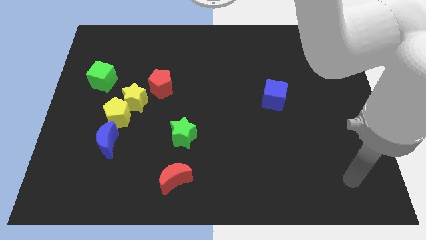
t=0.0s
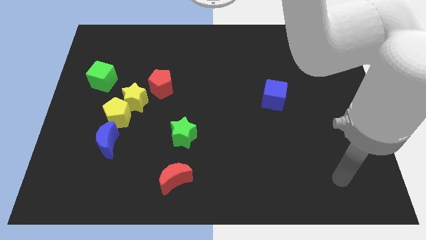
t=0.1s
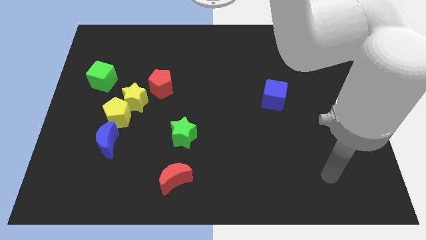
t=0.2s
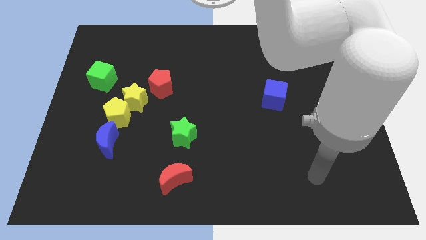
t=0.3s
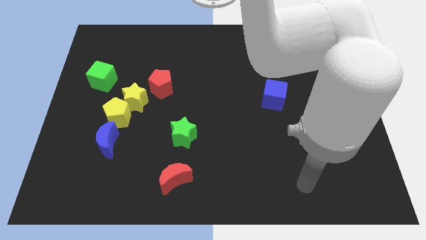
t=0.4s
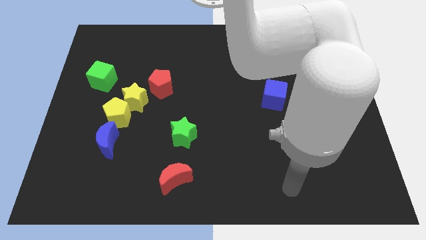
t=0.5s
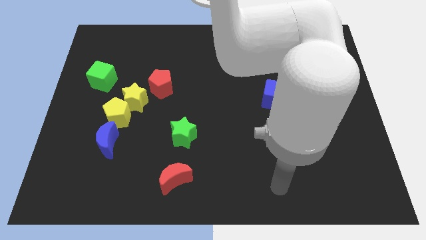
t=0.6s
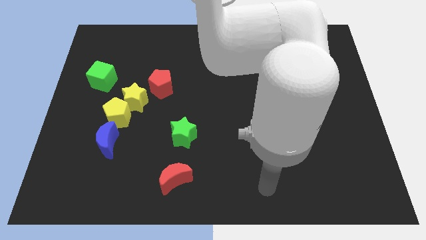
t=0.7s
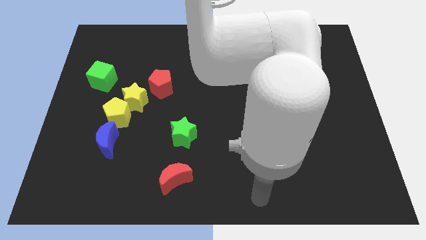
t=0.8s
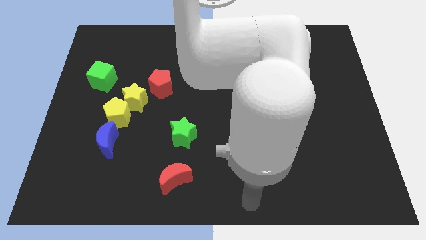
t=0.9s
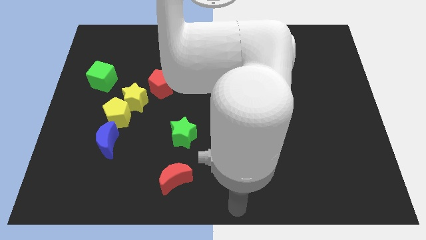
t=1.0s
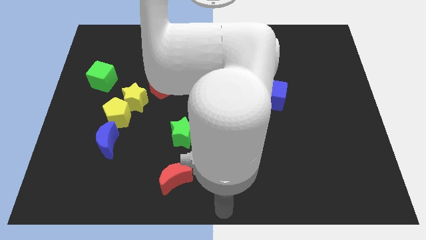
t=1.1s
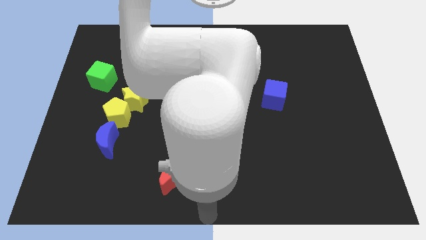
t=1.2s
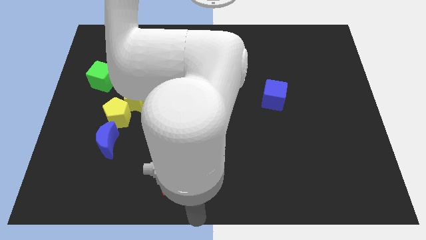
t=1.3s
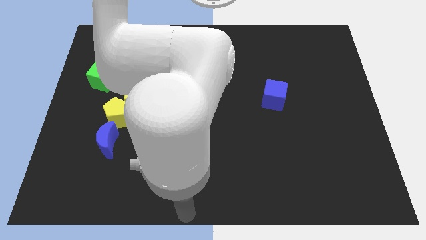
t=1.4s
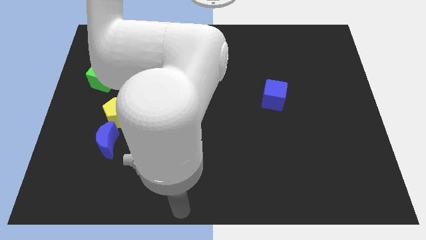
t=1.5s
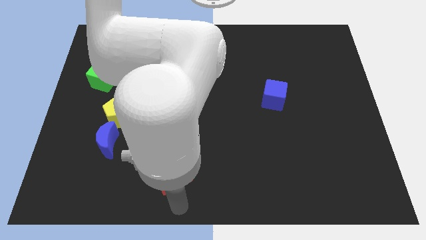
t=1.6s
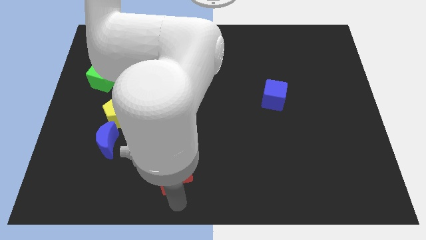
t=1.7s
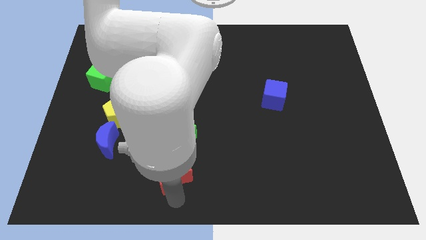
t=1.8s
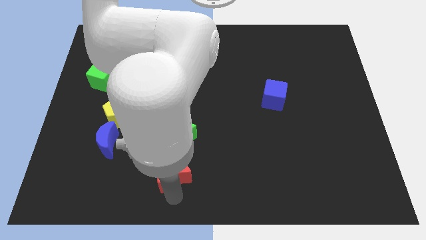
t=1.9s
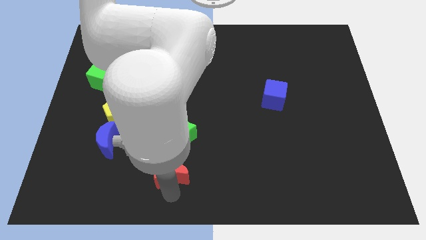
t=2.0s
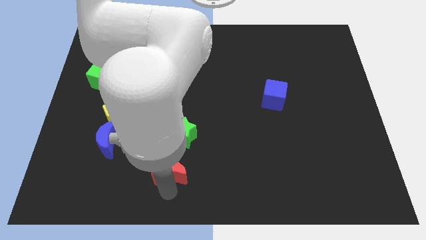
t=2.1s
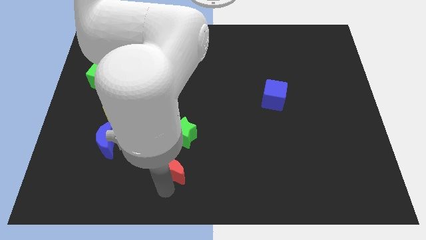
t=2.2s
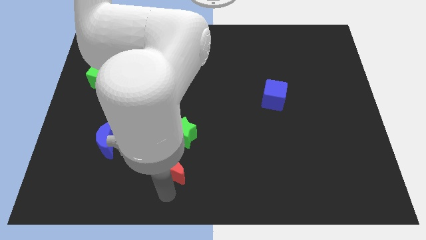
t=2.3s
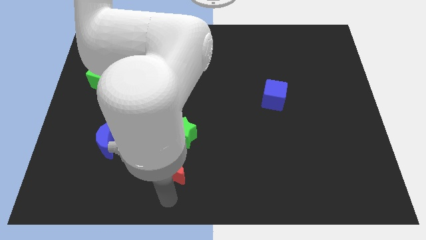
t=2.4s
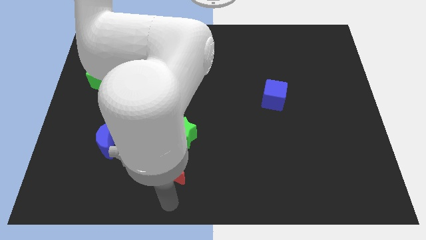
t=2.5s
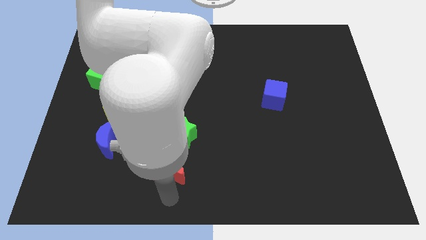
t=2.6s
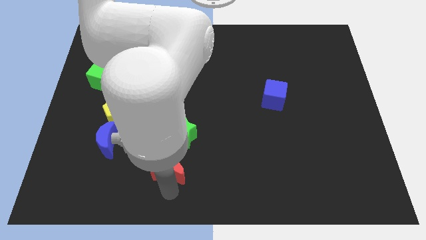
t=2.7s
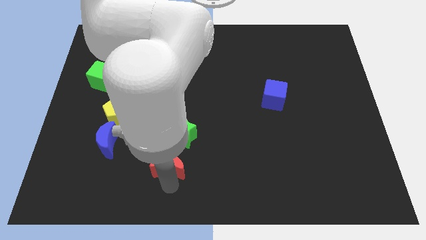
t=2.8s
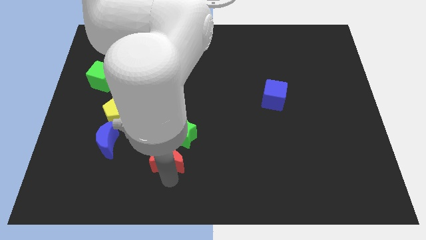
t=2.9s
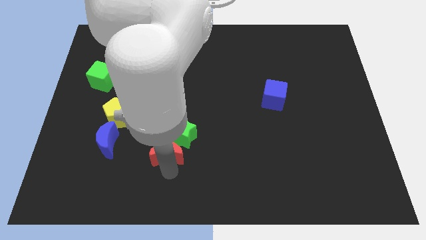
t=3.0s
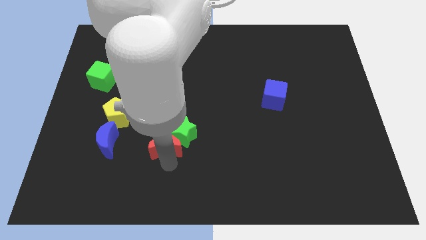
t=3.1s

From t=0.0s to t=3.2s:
push the red moon upwards a little

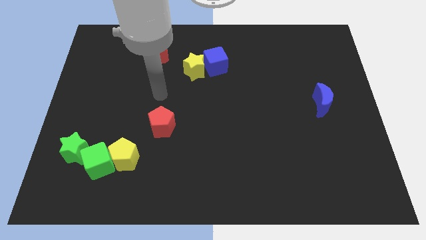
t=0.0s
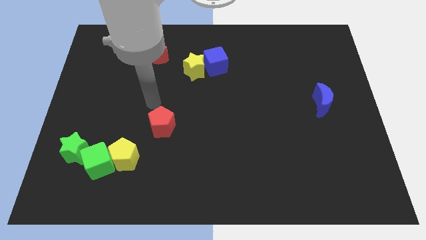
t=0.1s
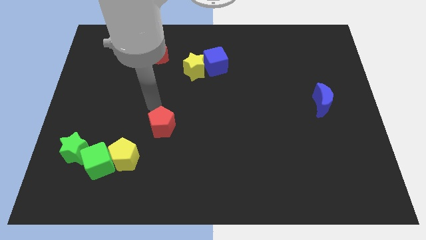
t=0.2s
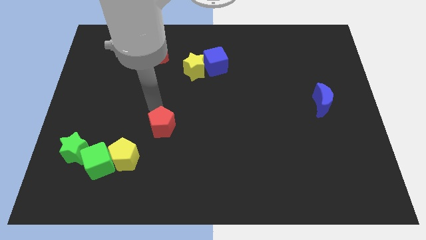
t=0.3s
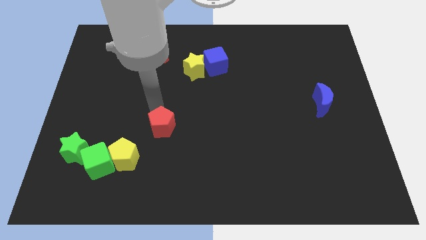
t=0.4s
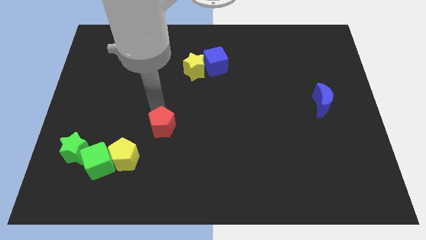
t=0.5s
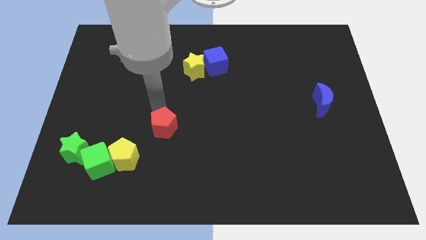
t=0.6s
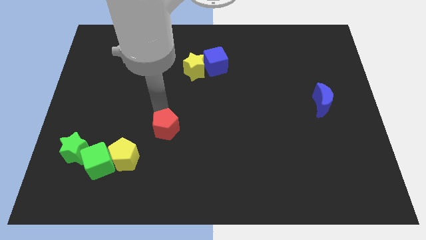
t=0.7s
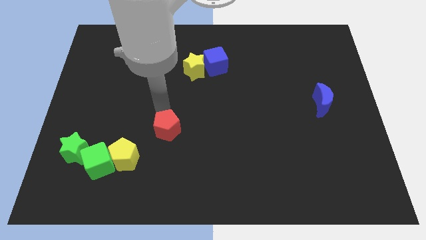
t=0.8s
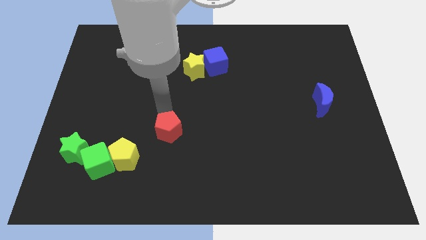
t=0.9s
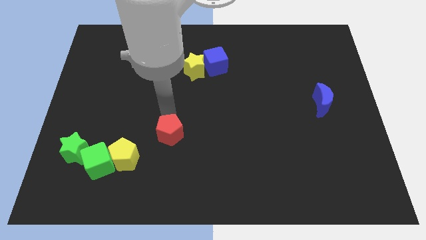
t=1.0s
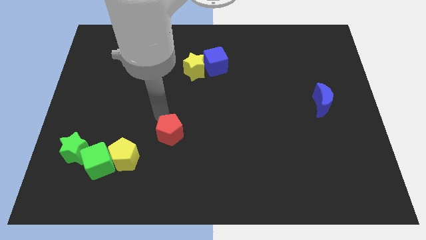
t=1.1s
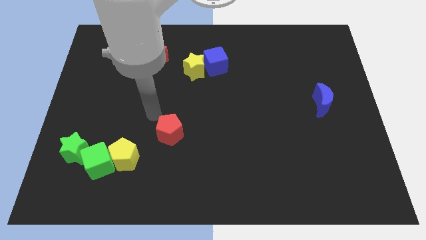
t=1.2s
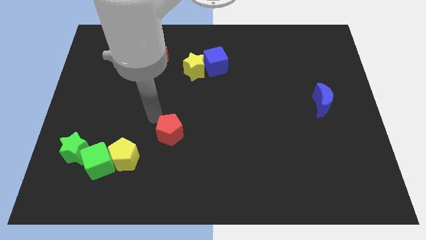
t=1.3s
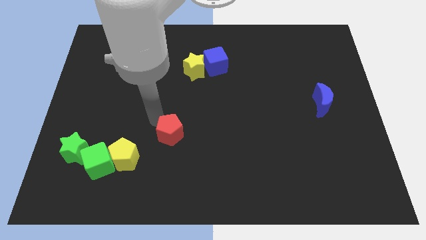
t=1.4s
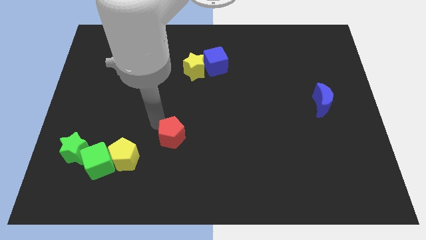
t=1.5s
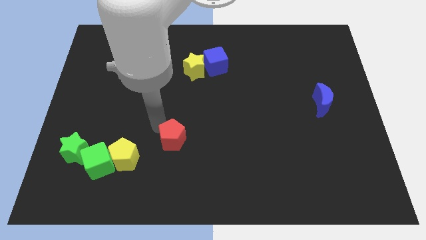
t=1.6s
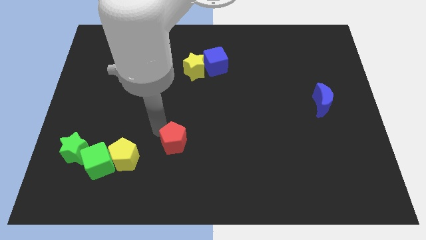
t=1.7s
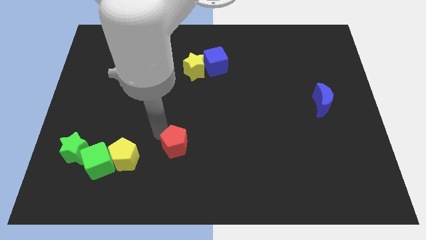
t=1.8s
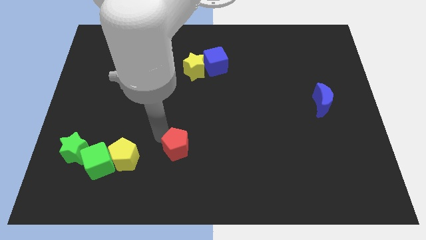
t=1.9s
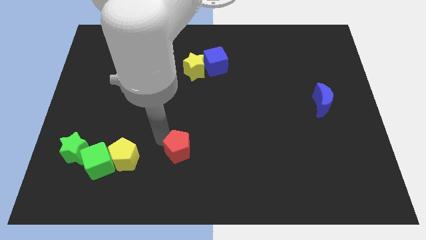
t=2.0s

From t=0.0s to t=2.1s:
slide the red pentagon a little bit diagonally downwards and right

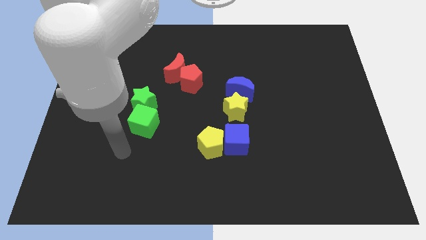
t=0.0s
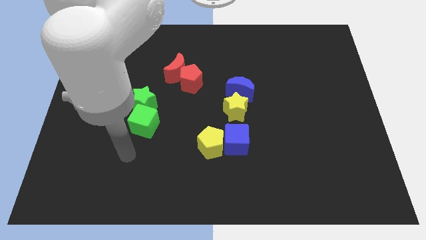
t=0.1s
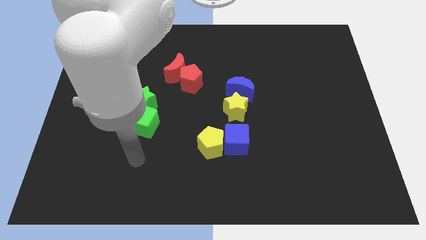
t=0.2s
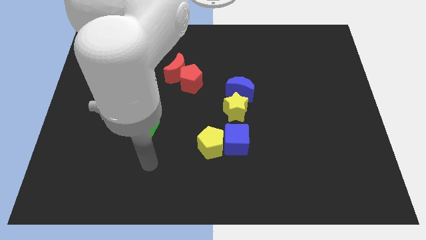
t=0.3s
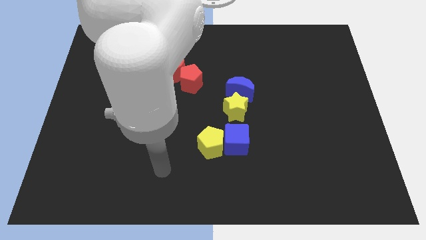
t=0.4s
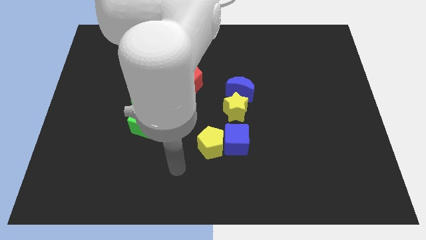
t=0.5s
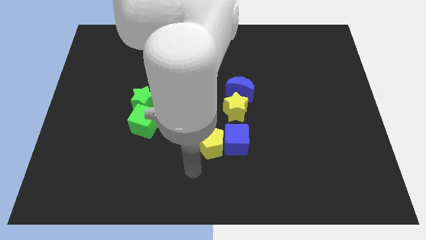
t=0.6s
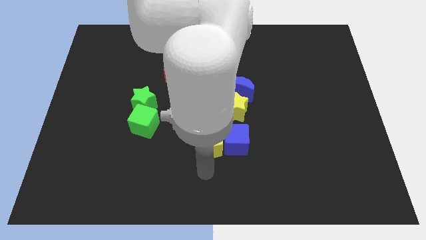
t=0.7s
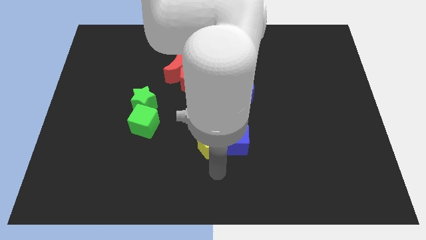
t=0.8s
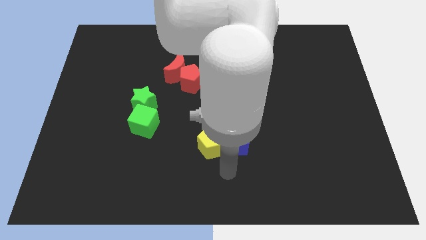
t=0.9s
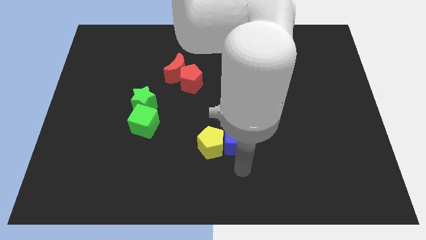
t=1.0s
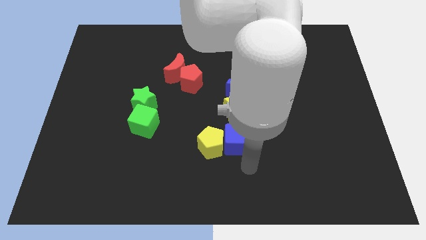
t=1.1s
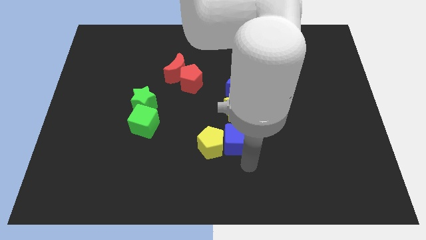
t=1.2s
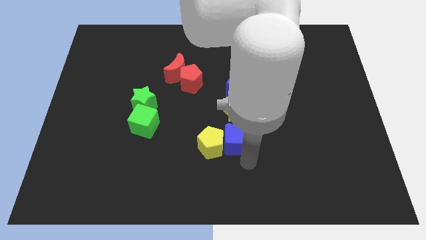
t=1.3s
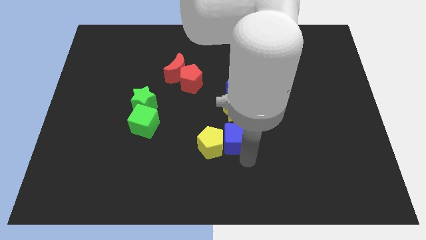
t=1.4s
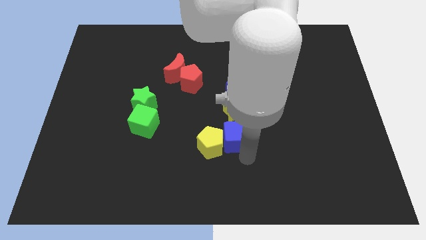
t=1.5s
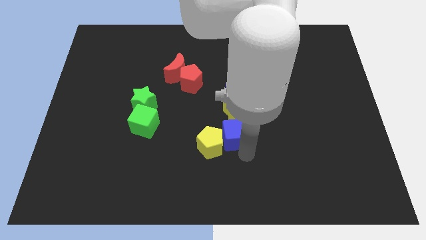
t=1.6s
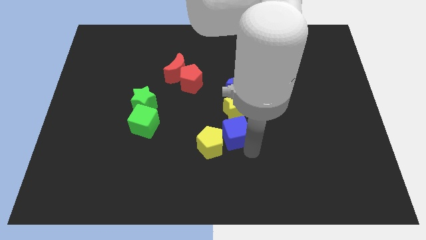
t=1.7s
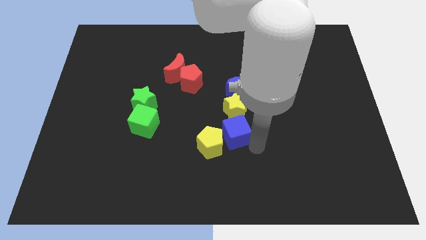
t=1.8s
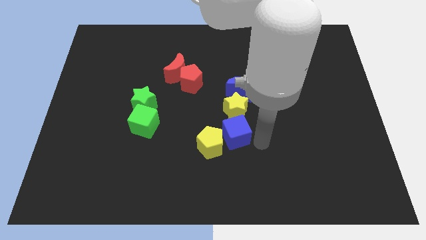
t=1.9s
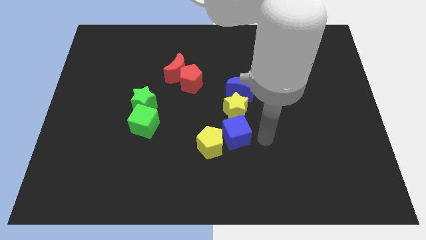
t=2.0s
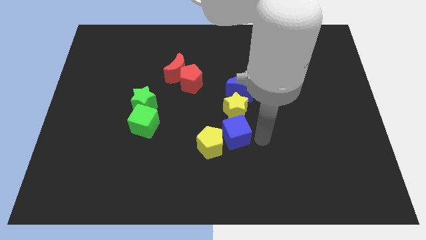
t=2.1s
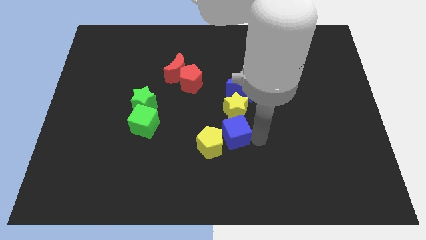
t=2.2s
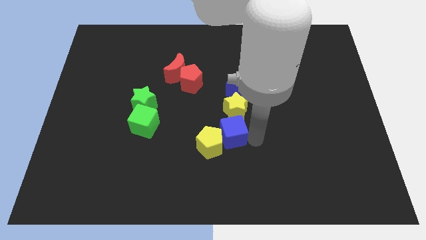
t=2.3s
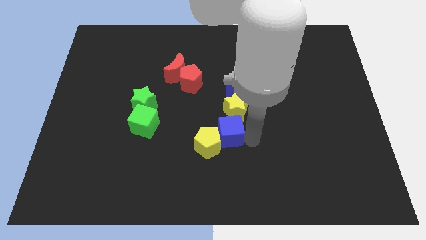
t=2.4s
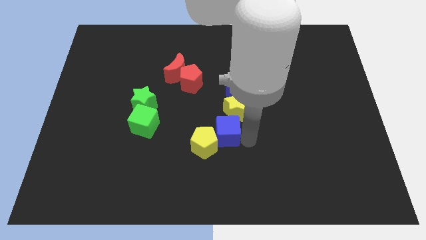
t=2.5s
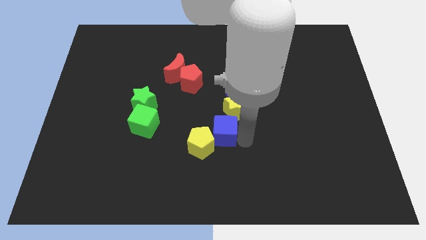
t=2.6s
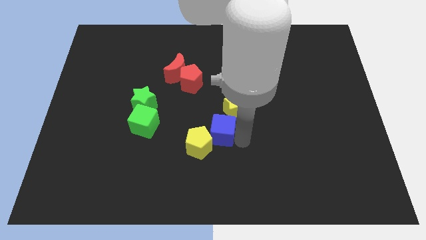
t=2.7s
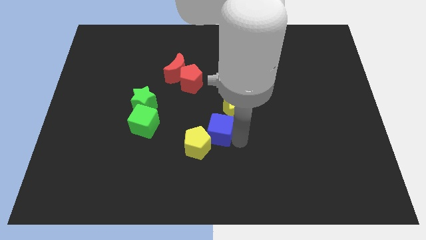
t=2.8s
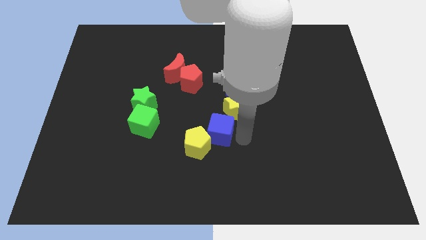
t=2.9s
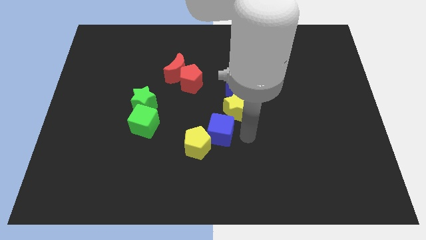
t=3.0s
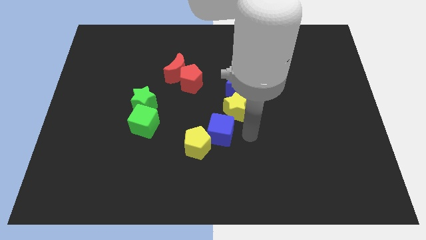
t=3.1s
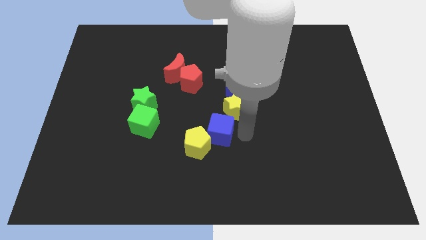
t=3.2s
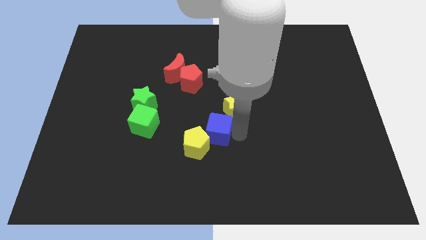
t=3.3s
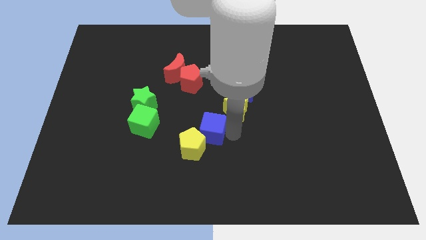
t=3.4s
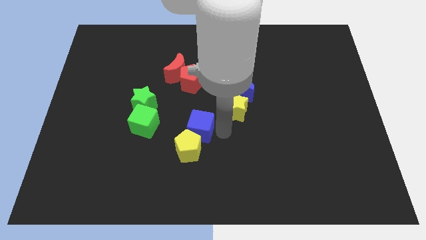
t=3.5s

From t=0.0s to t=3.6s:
slightly move the blue cube to the left
